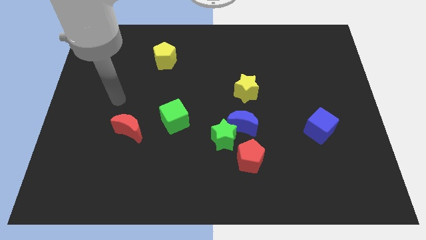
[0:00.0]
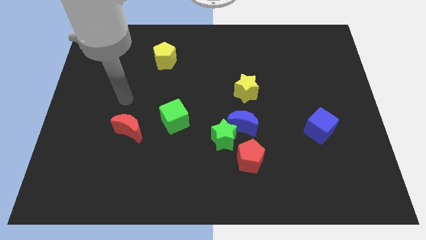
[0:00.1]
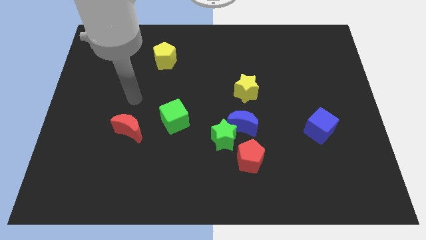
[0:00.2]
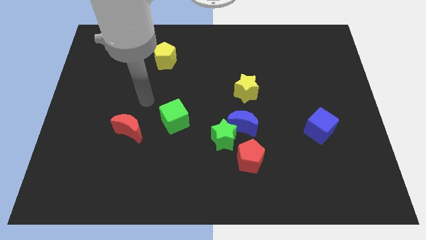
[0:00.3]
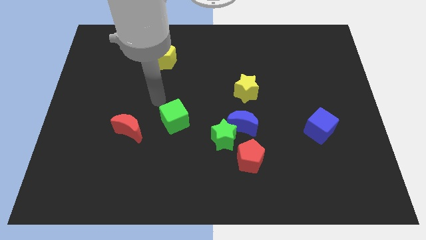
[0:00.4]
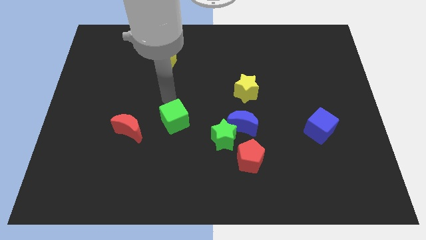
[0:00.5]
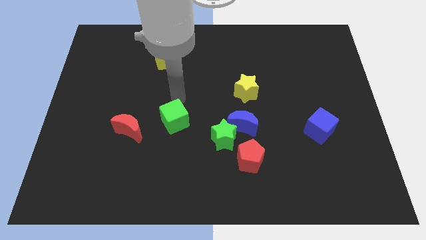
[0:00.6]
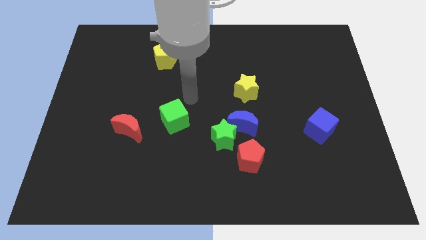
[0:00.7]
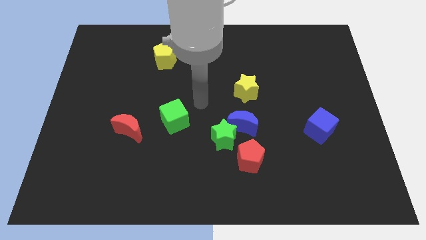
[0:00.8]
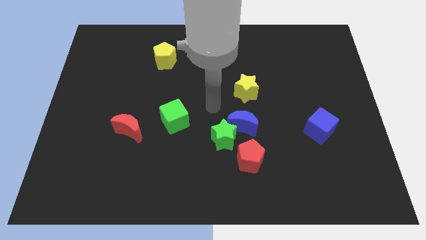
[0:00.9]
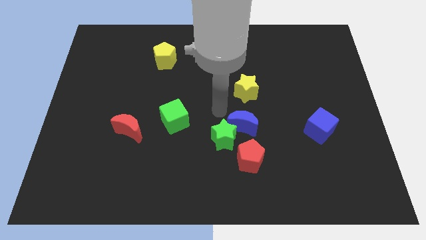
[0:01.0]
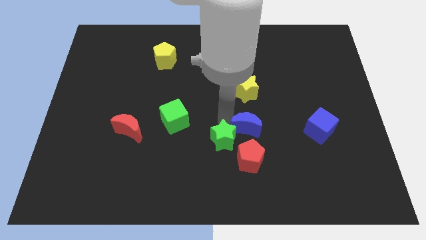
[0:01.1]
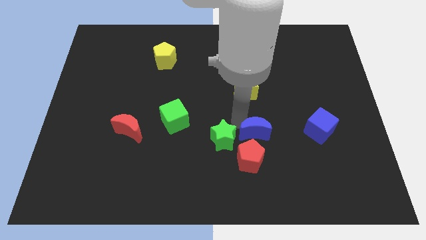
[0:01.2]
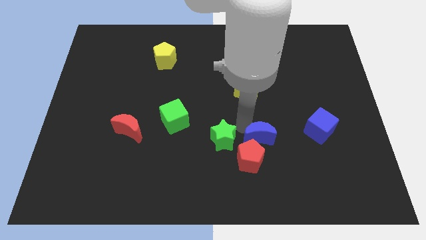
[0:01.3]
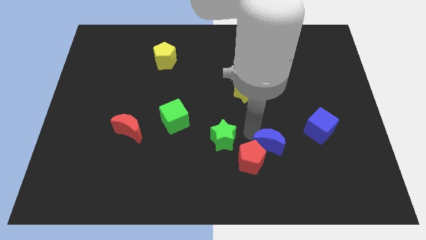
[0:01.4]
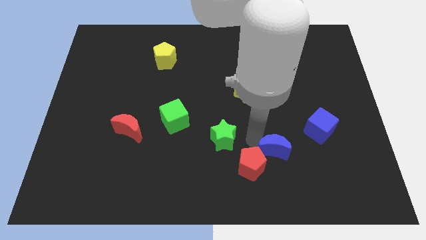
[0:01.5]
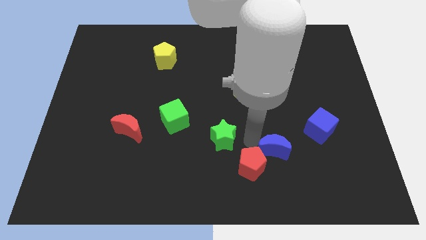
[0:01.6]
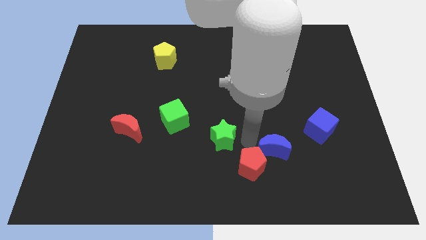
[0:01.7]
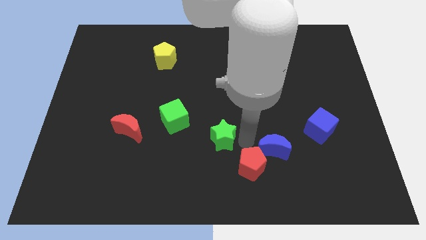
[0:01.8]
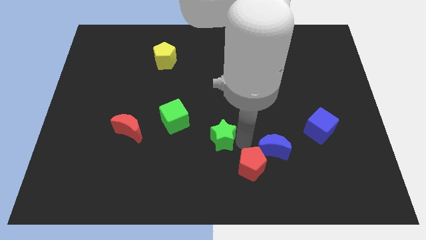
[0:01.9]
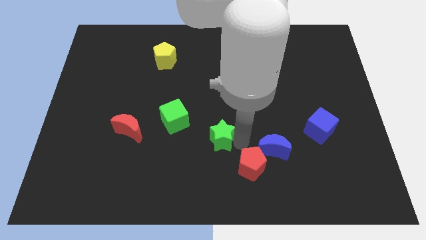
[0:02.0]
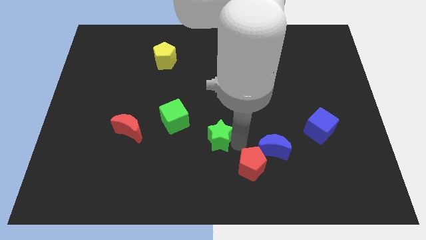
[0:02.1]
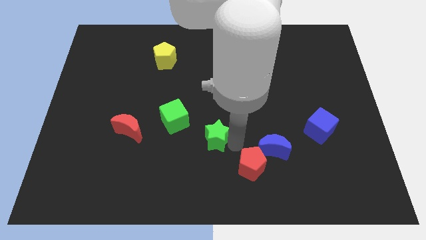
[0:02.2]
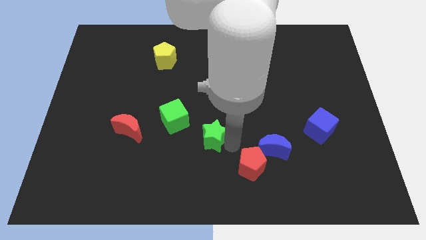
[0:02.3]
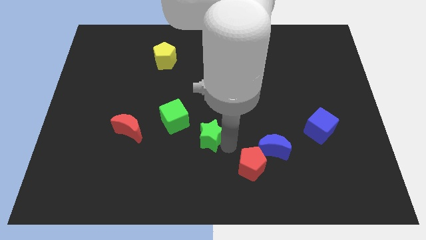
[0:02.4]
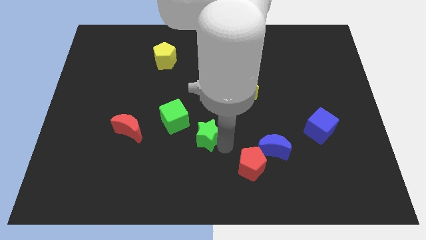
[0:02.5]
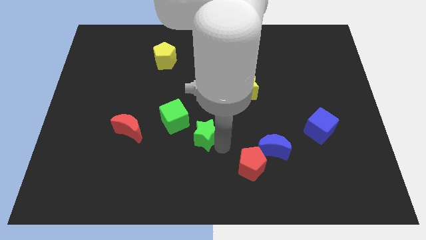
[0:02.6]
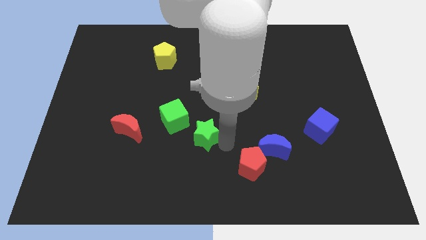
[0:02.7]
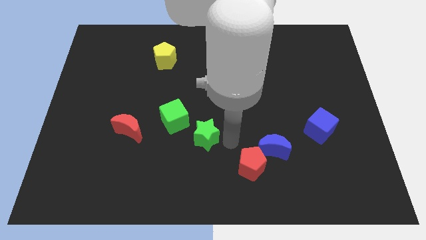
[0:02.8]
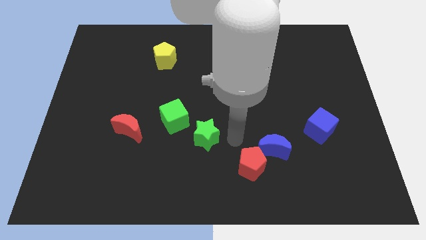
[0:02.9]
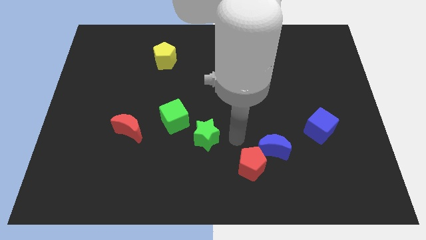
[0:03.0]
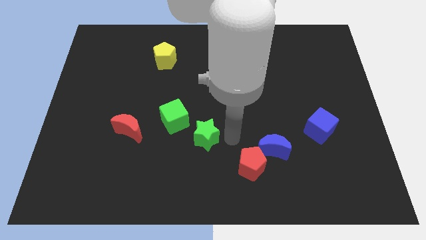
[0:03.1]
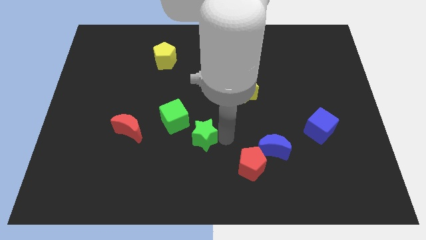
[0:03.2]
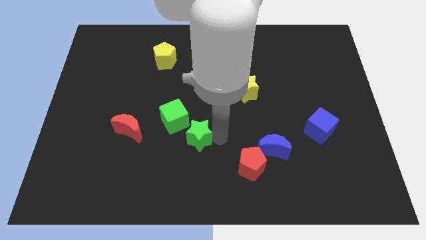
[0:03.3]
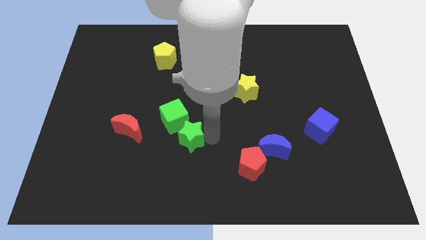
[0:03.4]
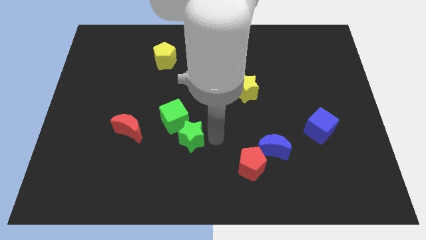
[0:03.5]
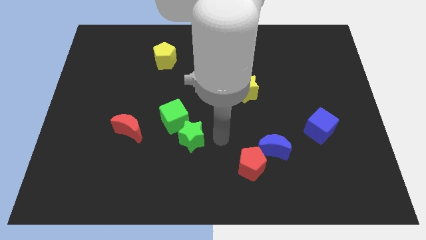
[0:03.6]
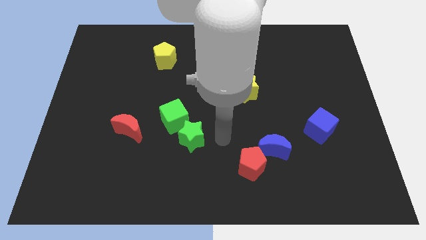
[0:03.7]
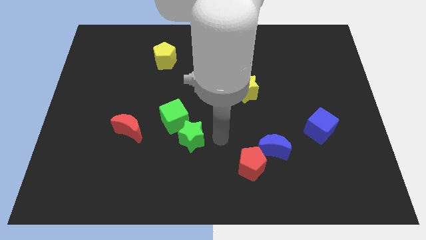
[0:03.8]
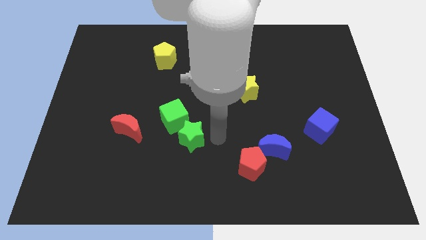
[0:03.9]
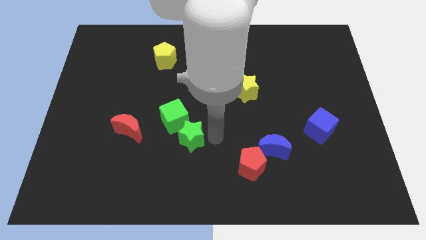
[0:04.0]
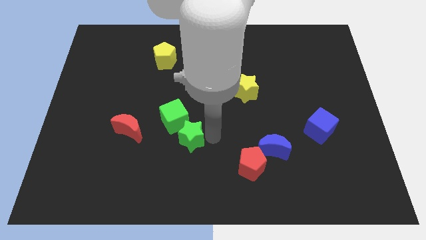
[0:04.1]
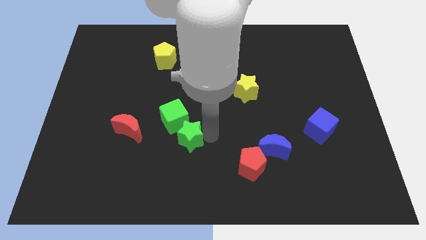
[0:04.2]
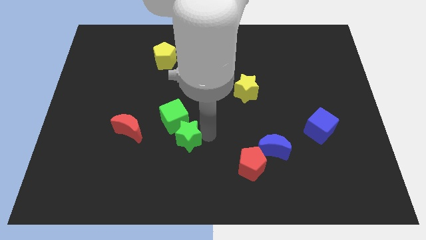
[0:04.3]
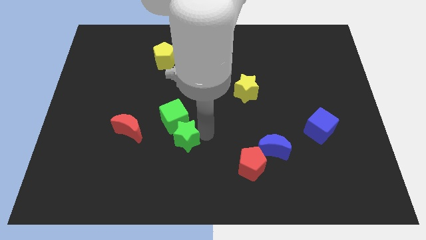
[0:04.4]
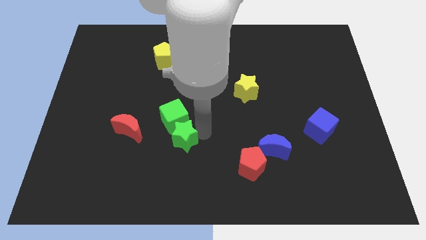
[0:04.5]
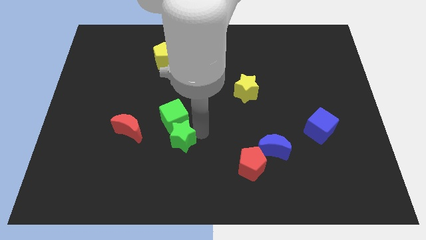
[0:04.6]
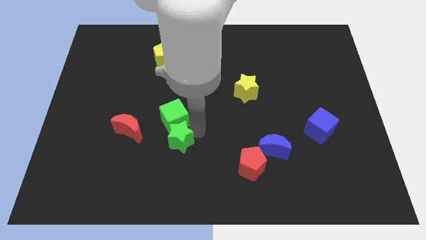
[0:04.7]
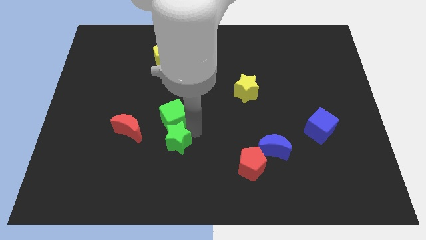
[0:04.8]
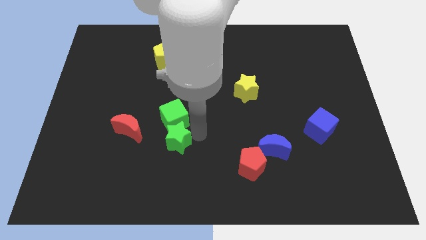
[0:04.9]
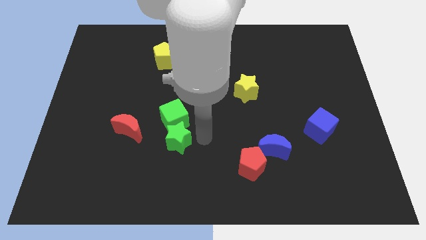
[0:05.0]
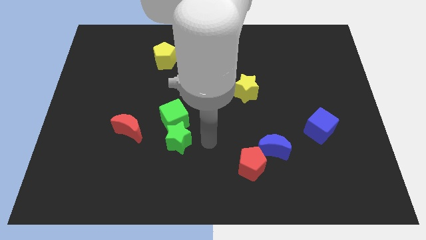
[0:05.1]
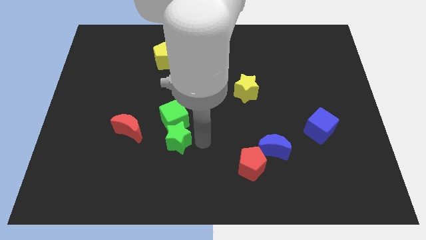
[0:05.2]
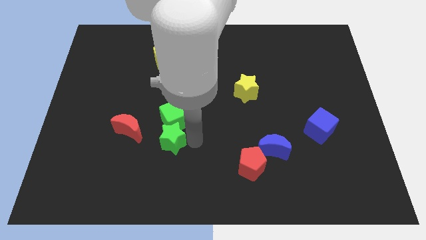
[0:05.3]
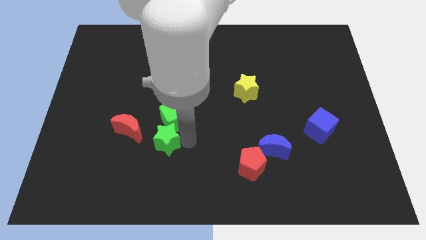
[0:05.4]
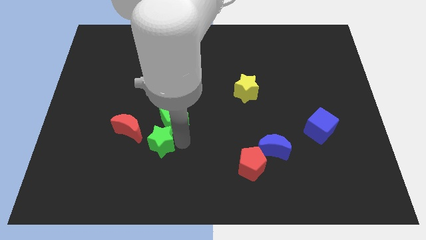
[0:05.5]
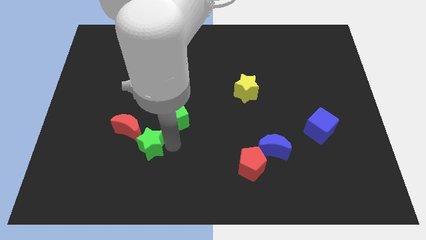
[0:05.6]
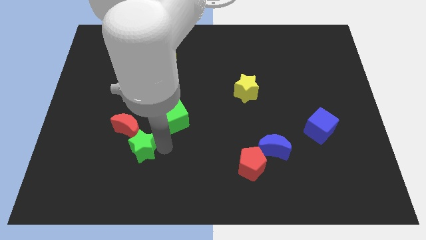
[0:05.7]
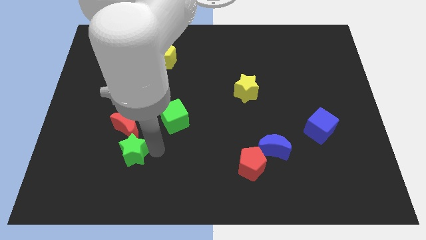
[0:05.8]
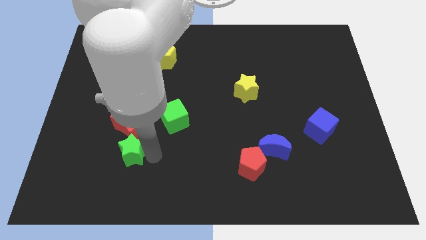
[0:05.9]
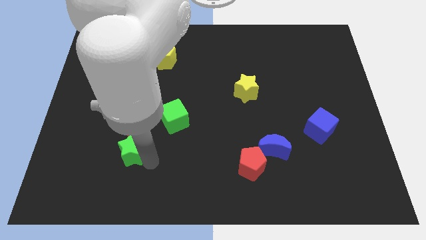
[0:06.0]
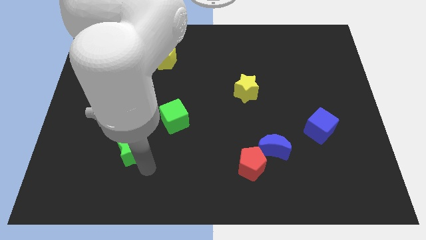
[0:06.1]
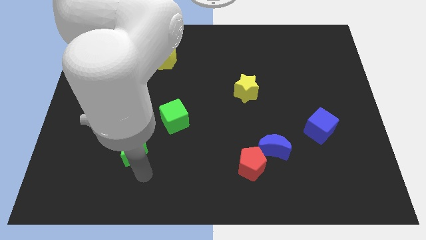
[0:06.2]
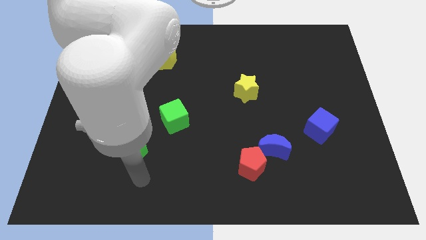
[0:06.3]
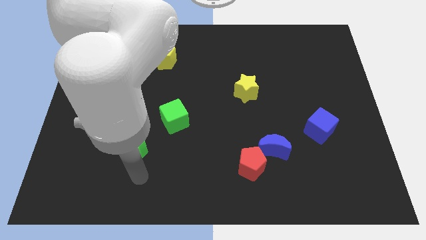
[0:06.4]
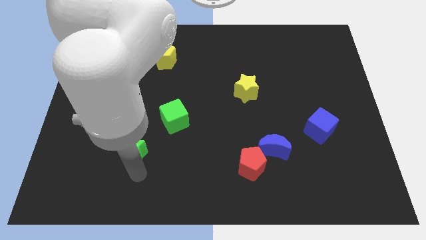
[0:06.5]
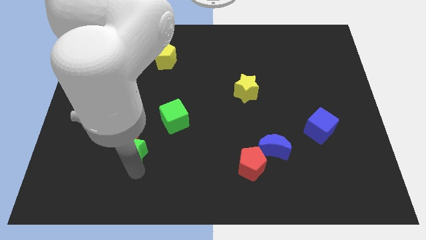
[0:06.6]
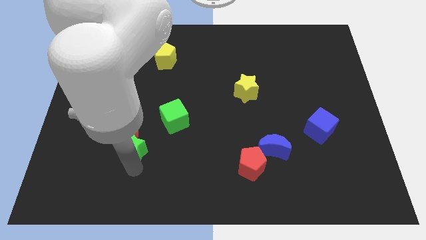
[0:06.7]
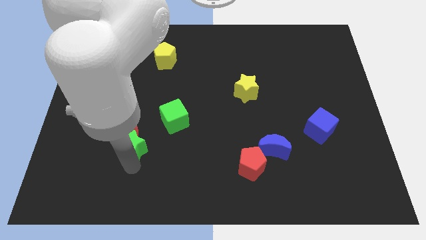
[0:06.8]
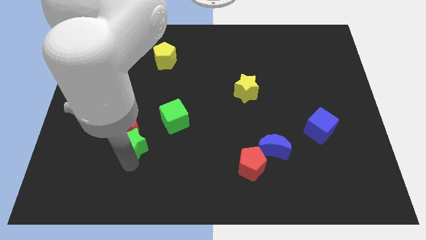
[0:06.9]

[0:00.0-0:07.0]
slide the green star towards the red moon

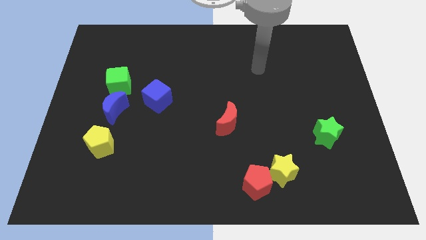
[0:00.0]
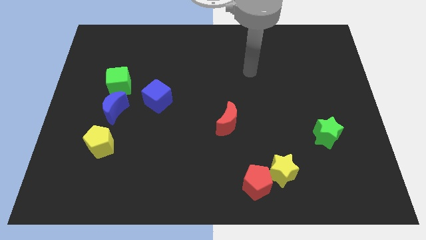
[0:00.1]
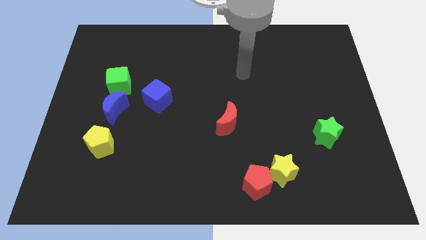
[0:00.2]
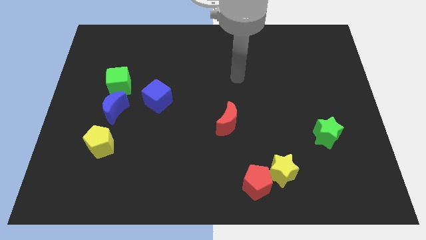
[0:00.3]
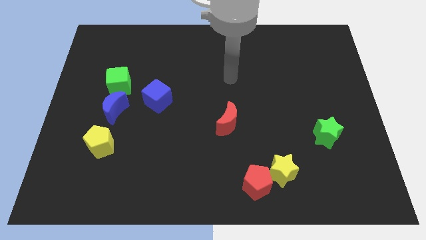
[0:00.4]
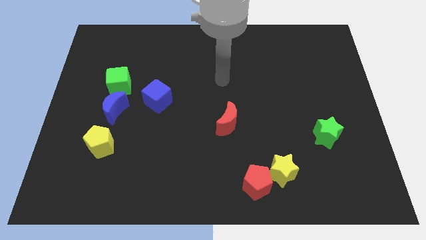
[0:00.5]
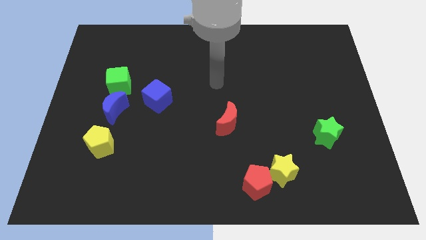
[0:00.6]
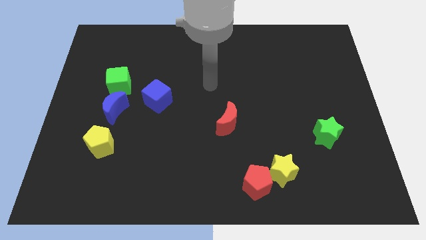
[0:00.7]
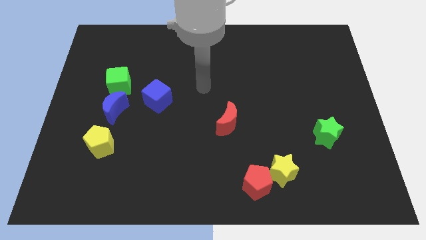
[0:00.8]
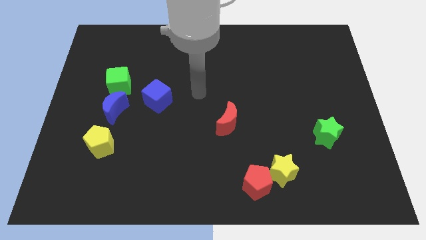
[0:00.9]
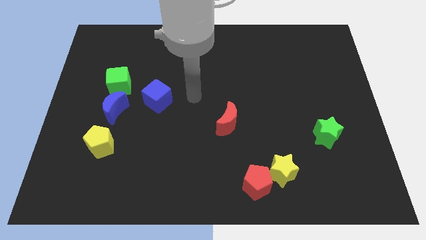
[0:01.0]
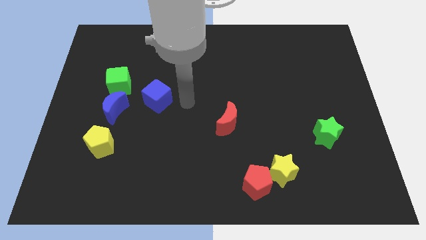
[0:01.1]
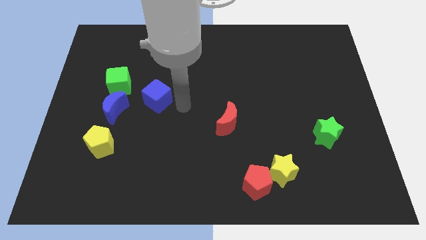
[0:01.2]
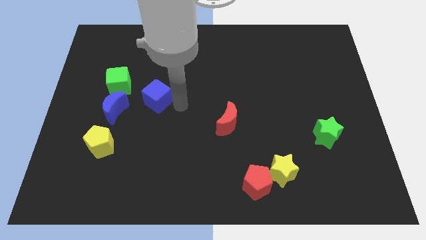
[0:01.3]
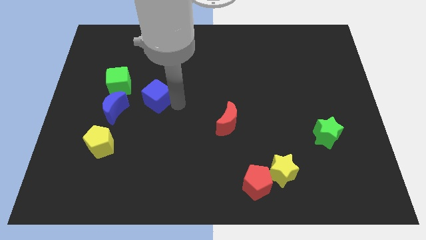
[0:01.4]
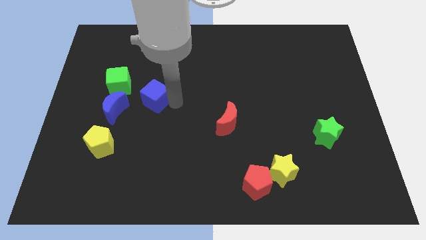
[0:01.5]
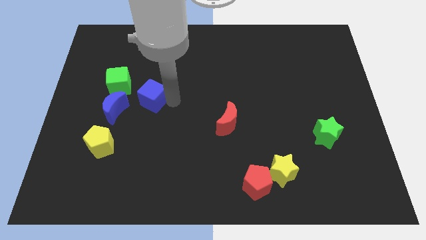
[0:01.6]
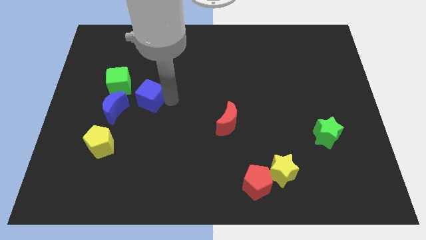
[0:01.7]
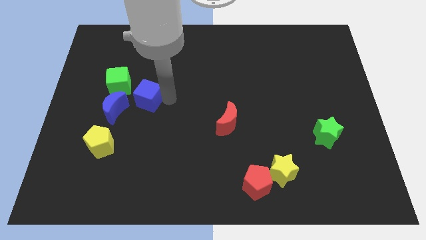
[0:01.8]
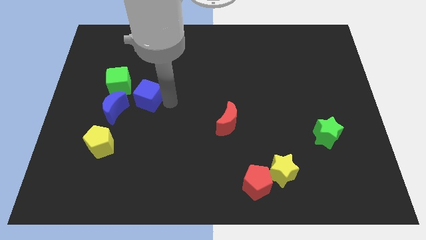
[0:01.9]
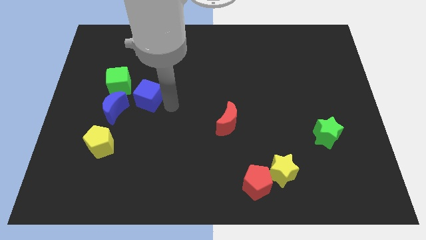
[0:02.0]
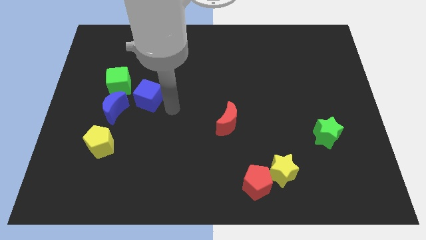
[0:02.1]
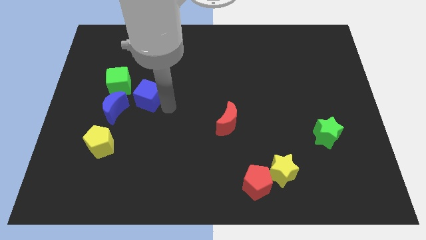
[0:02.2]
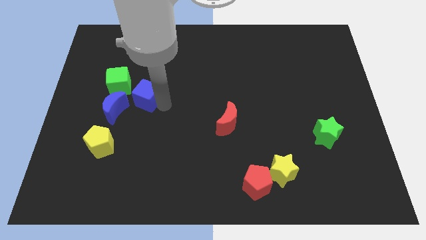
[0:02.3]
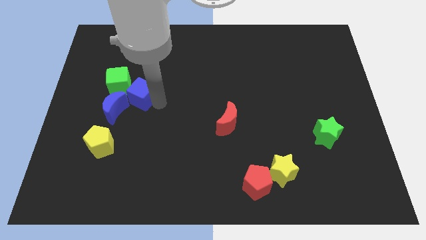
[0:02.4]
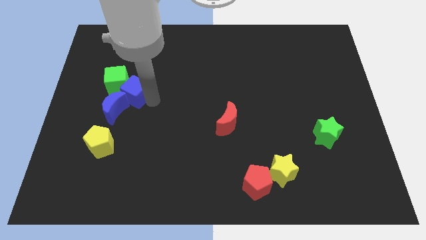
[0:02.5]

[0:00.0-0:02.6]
move the blue cube next to the green cube
